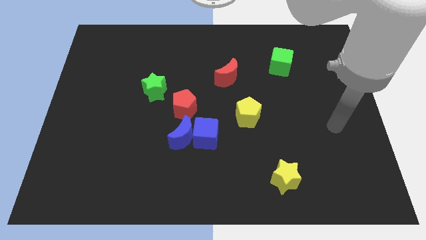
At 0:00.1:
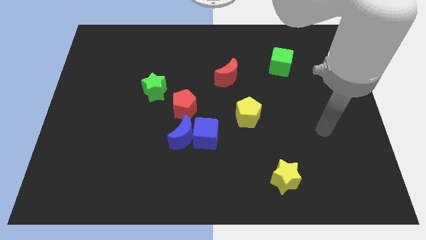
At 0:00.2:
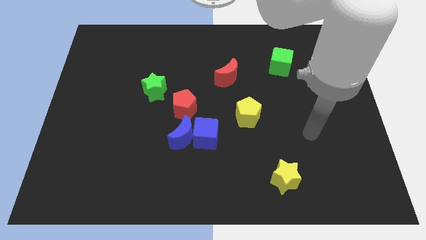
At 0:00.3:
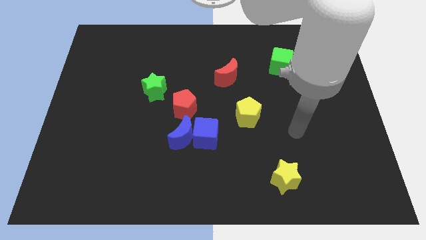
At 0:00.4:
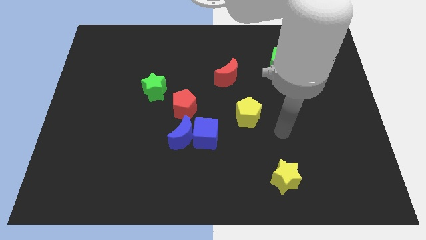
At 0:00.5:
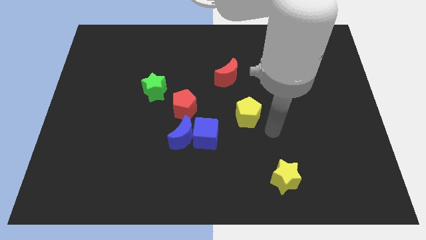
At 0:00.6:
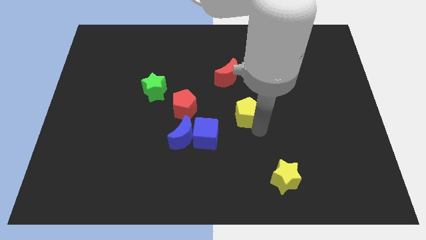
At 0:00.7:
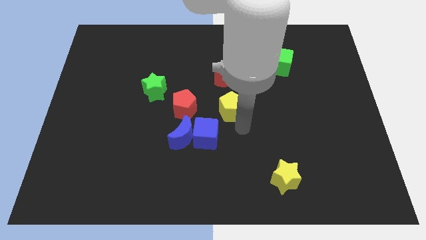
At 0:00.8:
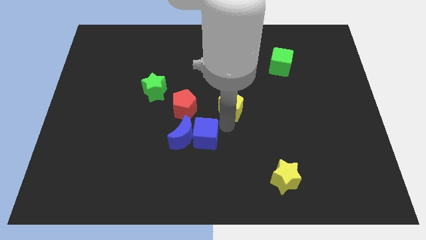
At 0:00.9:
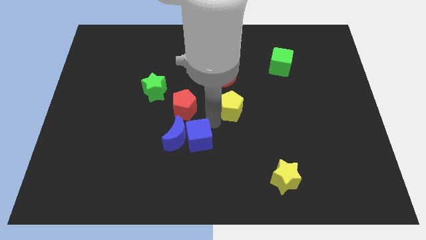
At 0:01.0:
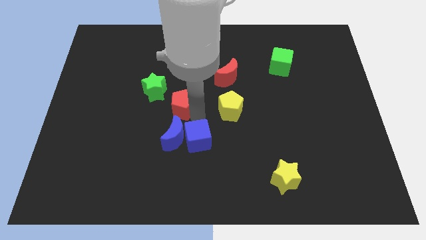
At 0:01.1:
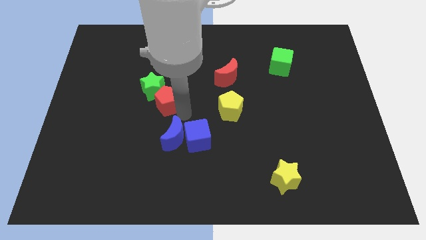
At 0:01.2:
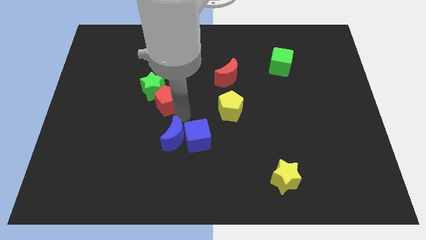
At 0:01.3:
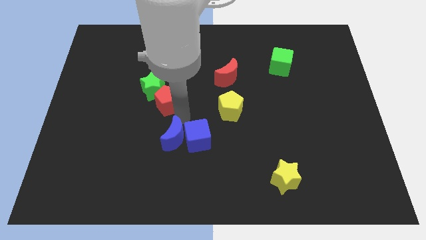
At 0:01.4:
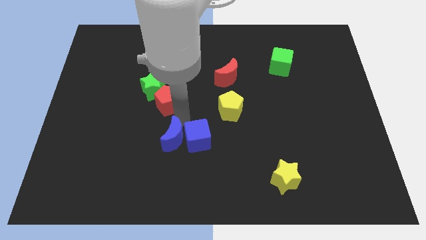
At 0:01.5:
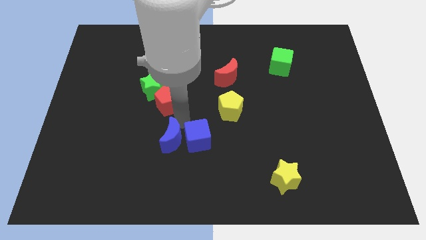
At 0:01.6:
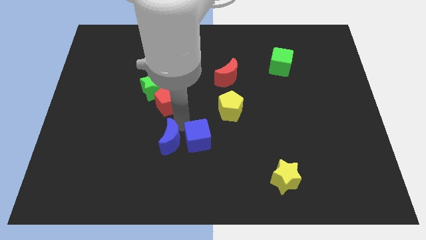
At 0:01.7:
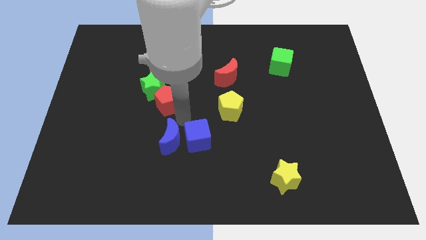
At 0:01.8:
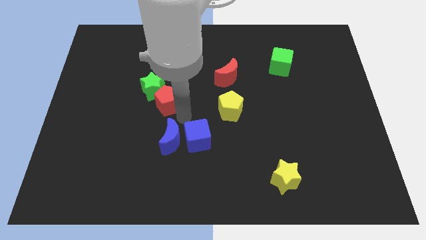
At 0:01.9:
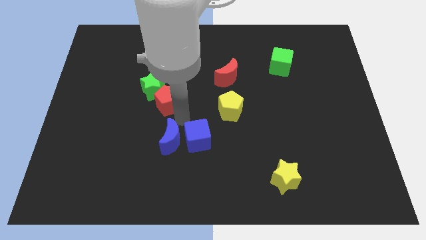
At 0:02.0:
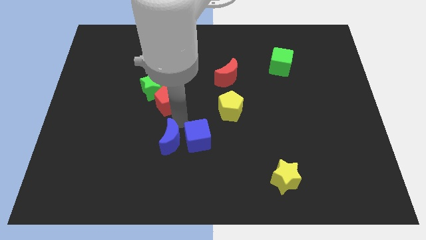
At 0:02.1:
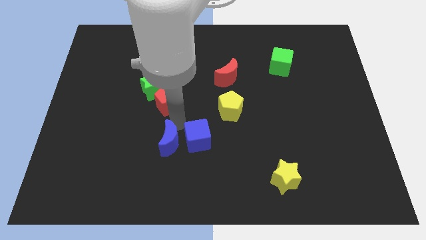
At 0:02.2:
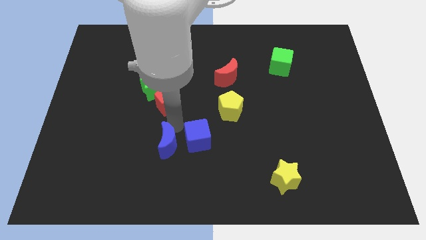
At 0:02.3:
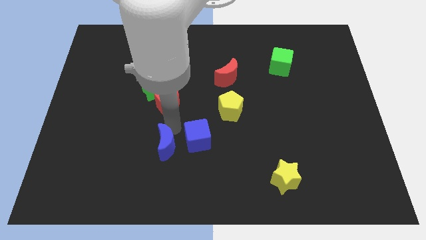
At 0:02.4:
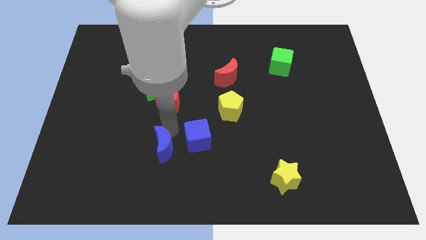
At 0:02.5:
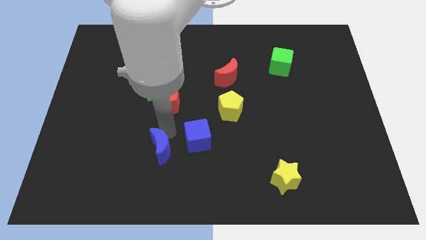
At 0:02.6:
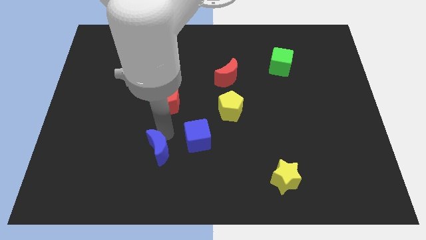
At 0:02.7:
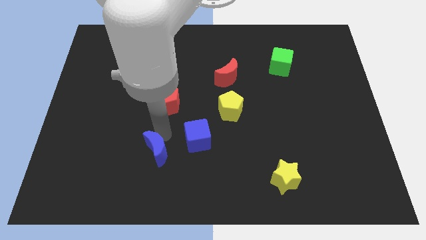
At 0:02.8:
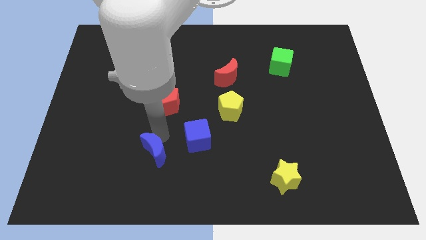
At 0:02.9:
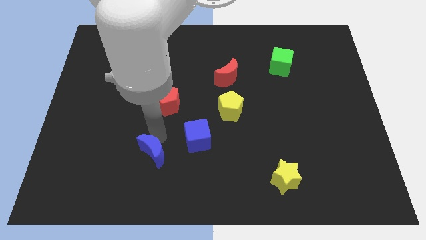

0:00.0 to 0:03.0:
move the blue moon away from the blue cube and red pentagon

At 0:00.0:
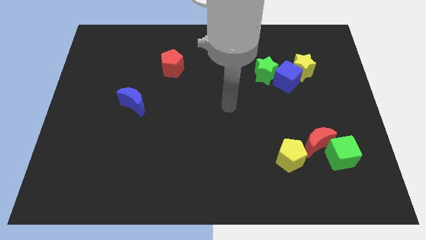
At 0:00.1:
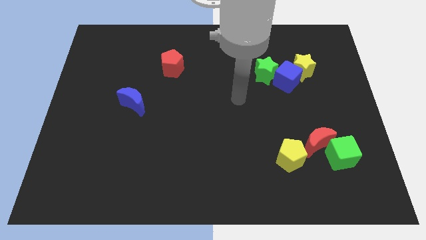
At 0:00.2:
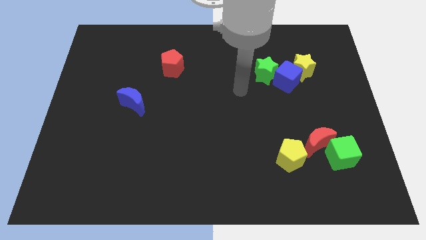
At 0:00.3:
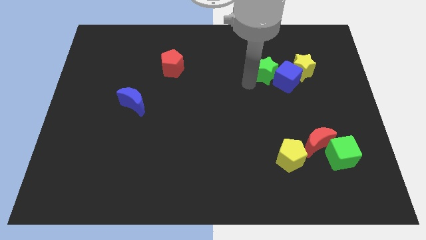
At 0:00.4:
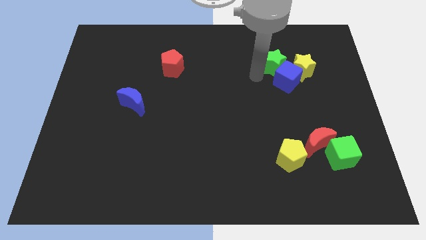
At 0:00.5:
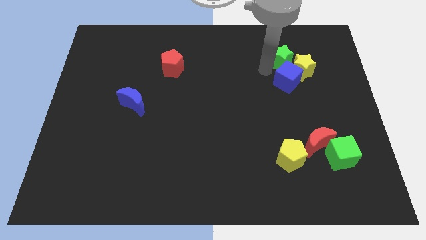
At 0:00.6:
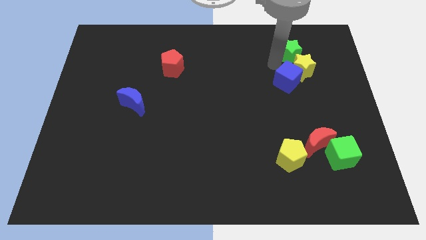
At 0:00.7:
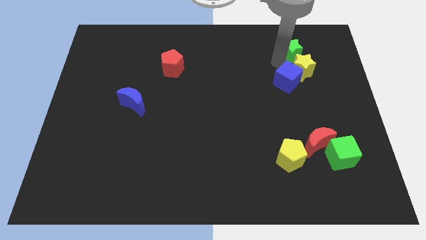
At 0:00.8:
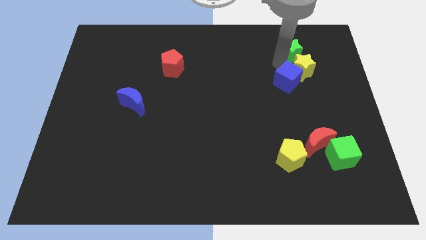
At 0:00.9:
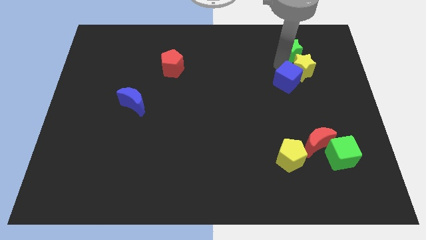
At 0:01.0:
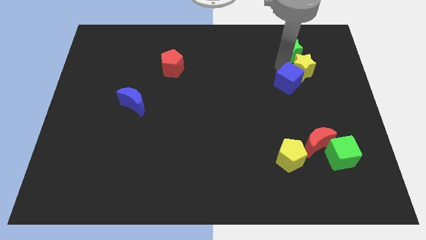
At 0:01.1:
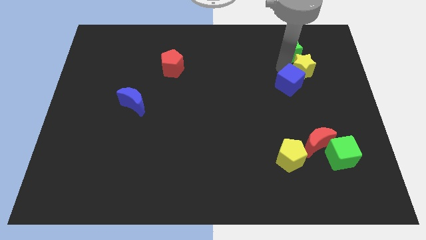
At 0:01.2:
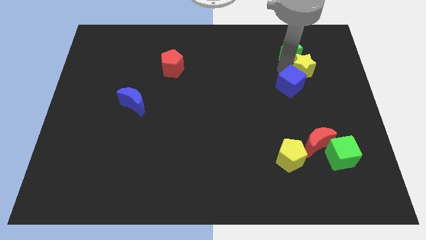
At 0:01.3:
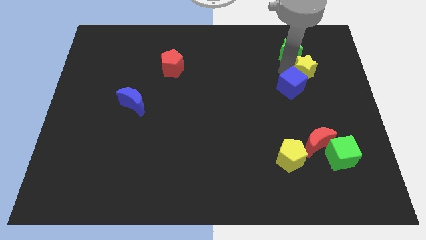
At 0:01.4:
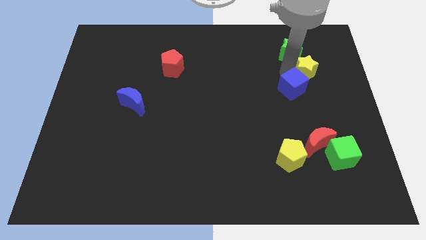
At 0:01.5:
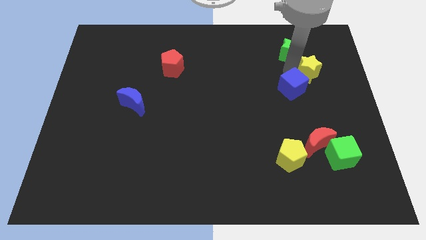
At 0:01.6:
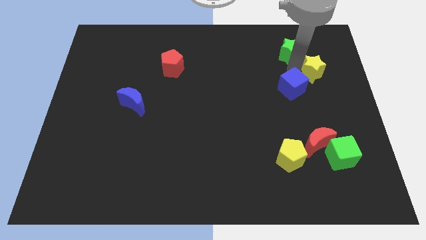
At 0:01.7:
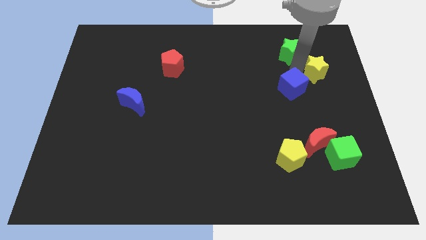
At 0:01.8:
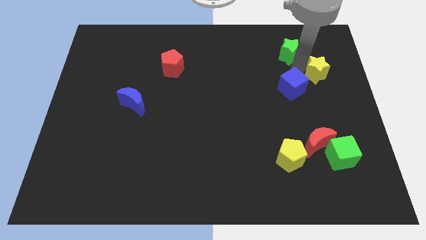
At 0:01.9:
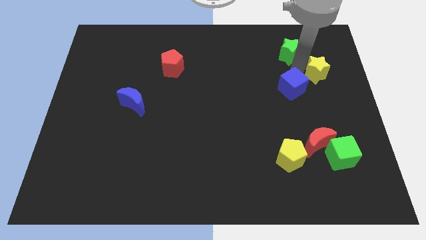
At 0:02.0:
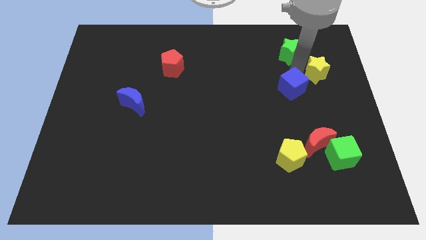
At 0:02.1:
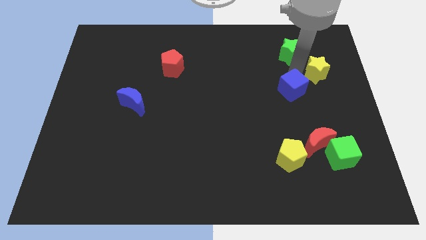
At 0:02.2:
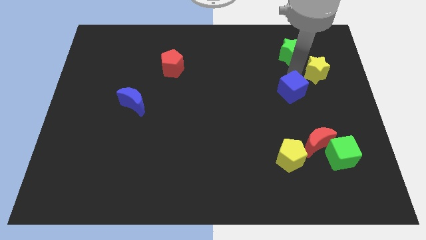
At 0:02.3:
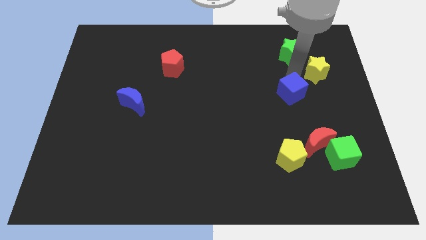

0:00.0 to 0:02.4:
move the blue cube away from the yellow star and green star

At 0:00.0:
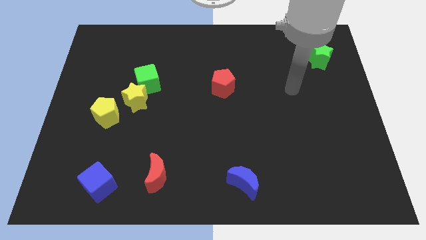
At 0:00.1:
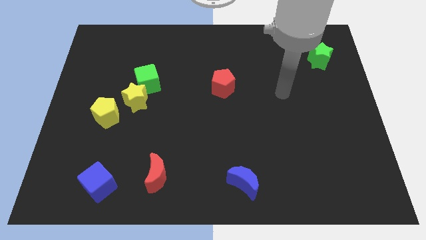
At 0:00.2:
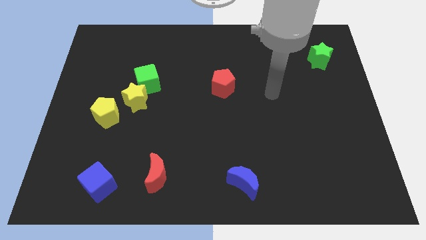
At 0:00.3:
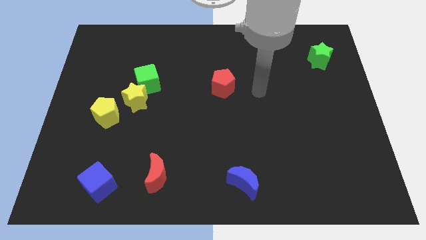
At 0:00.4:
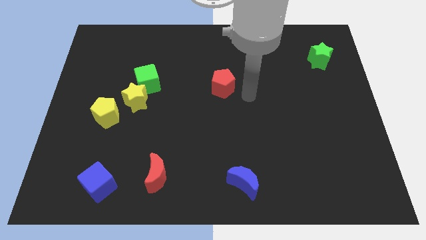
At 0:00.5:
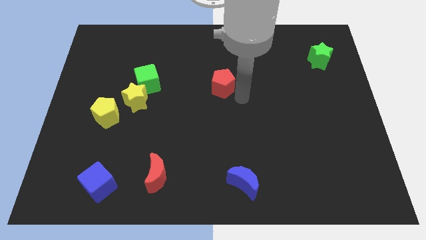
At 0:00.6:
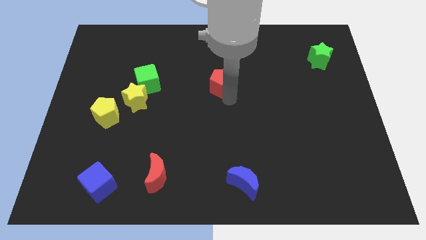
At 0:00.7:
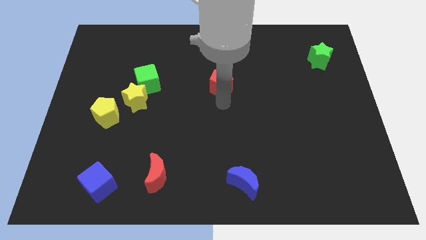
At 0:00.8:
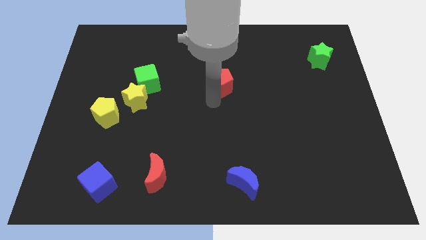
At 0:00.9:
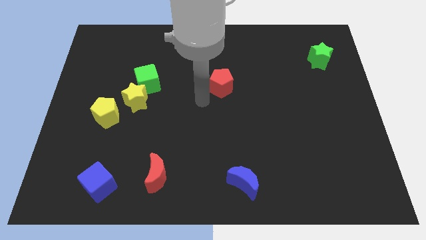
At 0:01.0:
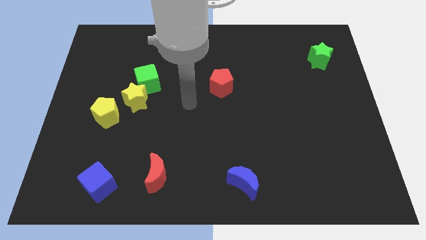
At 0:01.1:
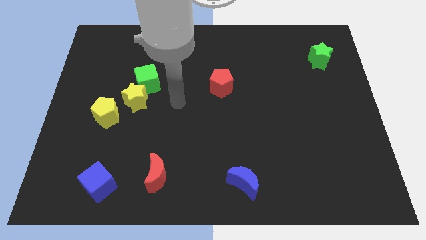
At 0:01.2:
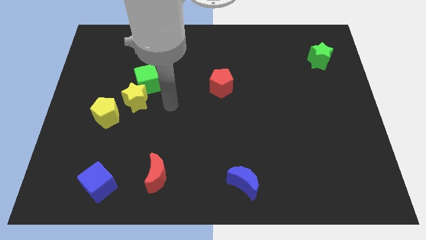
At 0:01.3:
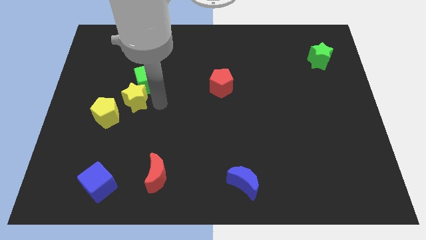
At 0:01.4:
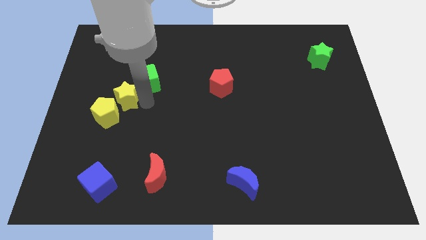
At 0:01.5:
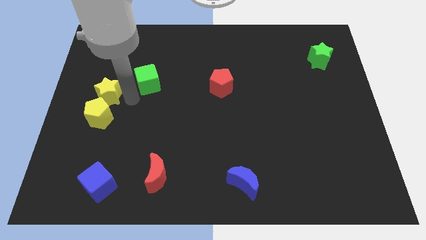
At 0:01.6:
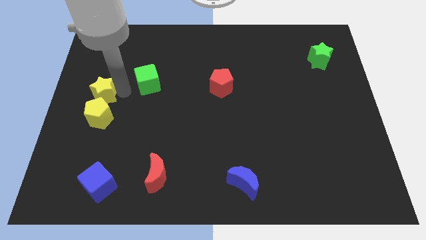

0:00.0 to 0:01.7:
pull the green cube apart from the yellow star

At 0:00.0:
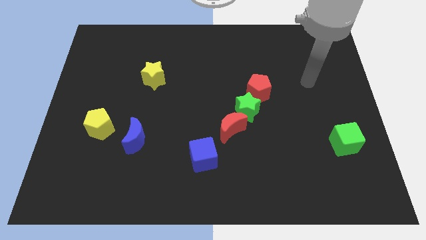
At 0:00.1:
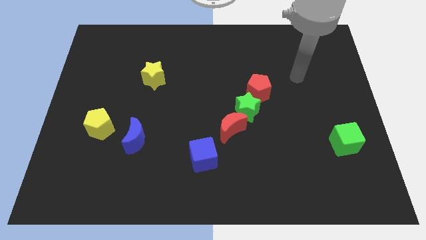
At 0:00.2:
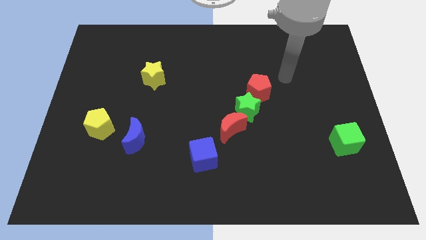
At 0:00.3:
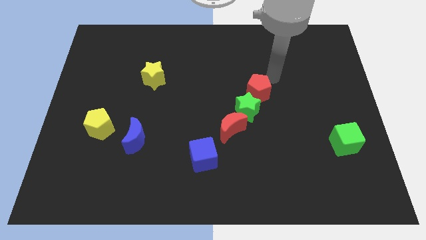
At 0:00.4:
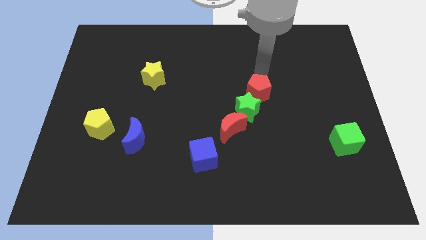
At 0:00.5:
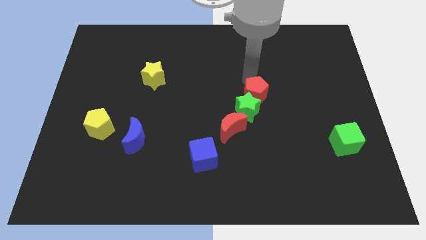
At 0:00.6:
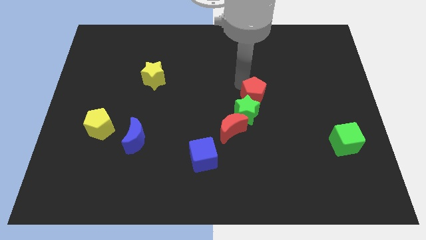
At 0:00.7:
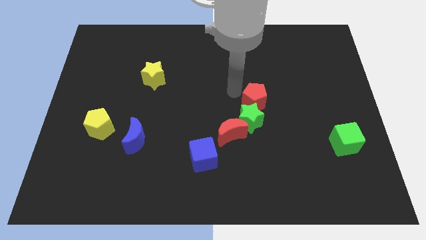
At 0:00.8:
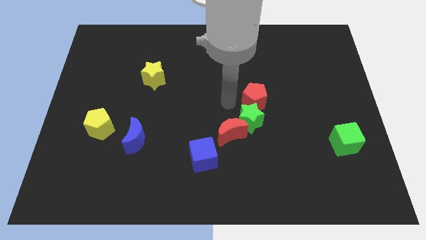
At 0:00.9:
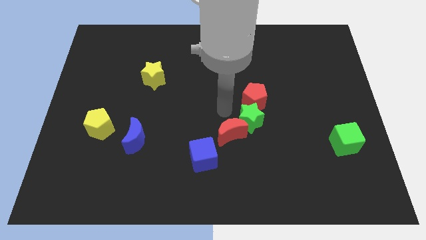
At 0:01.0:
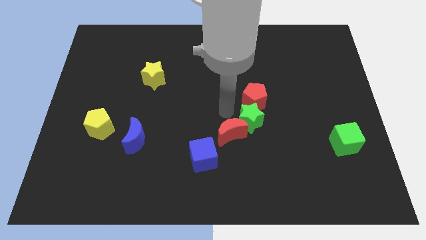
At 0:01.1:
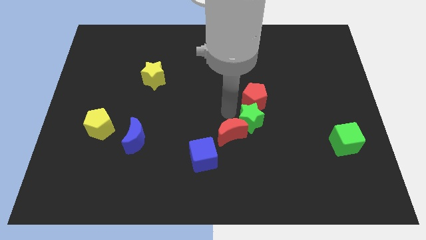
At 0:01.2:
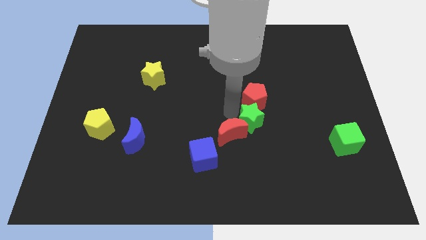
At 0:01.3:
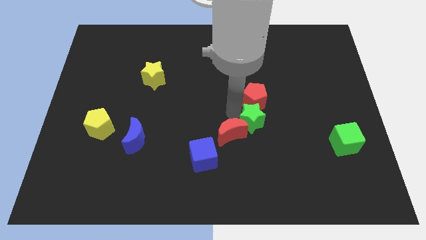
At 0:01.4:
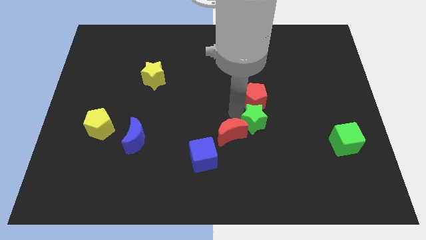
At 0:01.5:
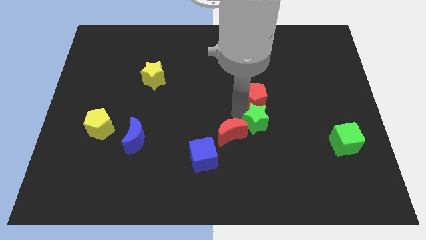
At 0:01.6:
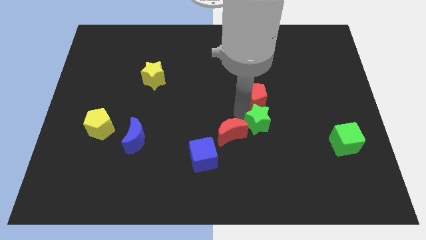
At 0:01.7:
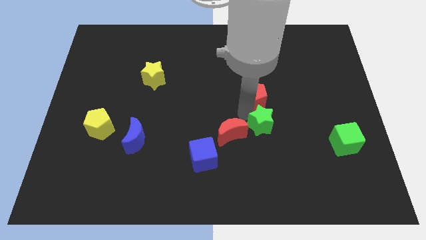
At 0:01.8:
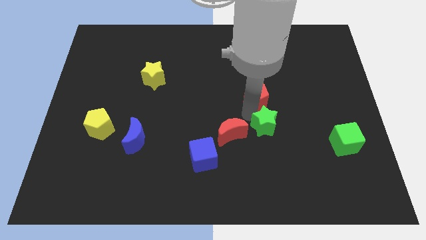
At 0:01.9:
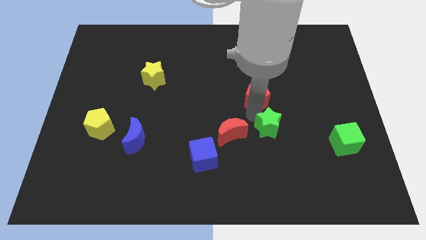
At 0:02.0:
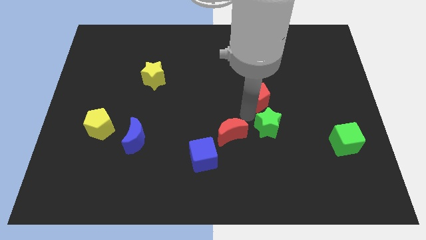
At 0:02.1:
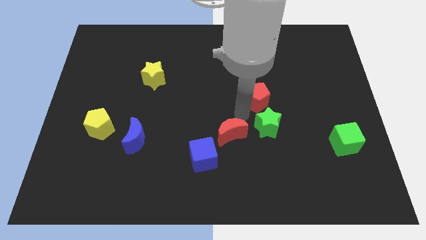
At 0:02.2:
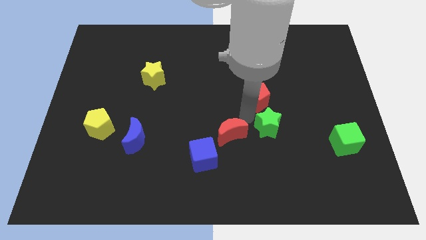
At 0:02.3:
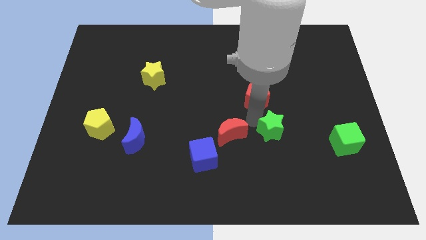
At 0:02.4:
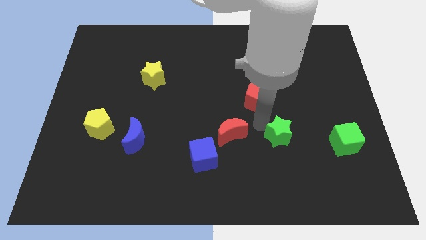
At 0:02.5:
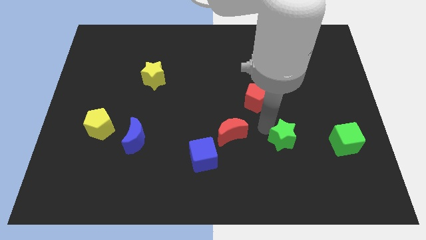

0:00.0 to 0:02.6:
separate the green star from the red moon and red pentagon
